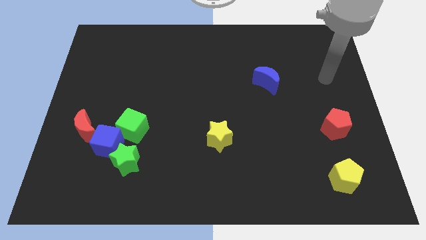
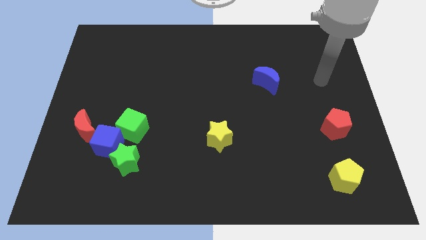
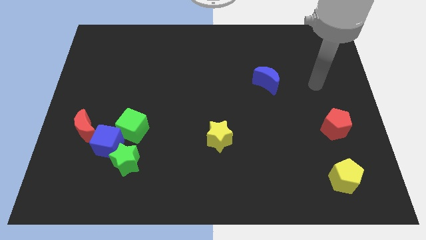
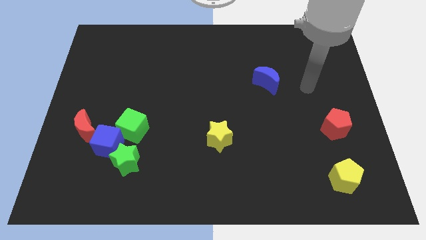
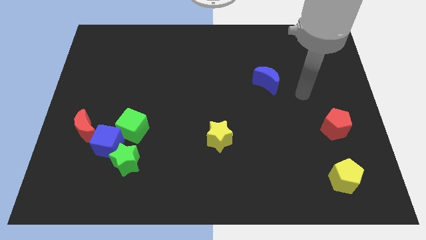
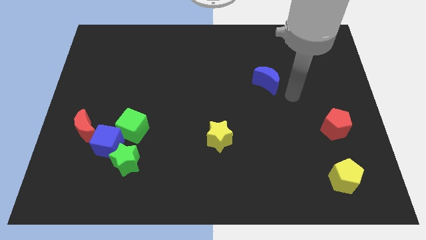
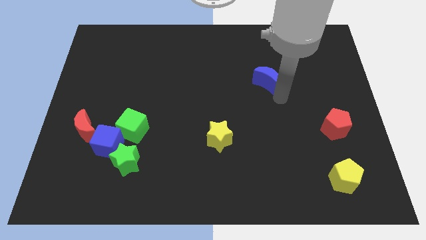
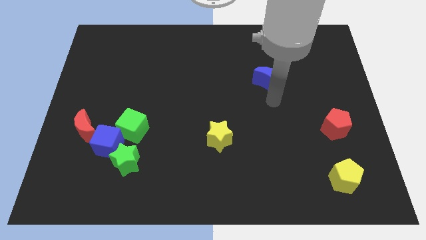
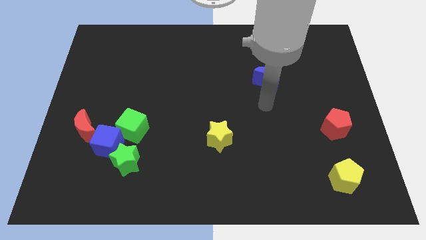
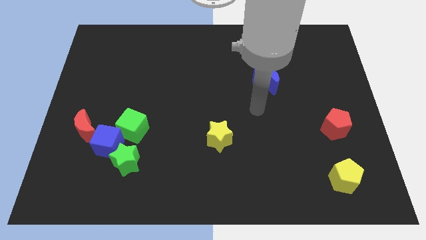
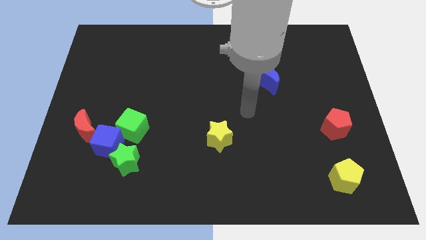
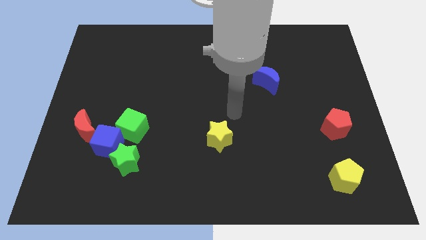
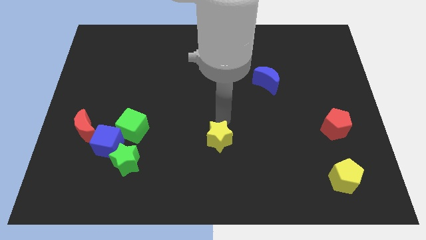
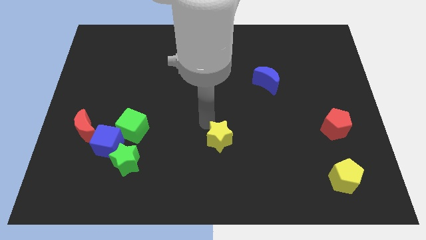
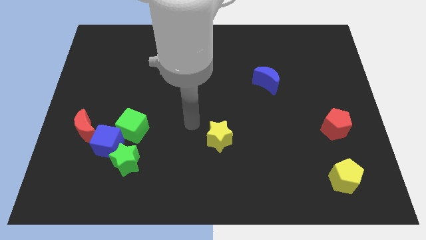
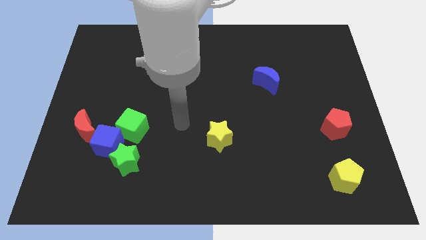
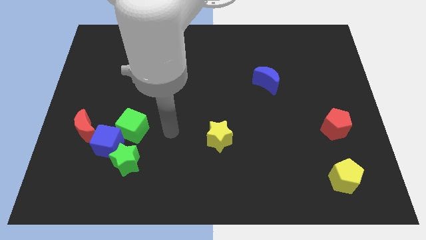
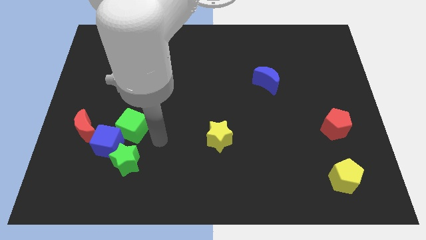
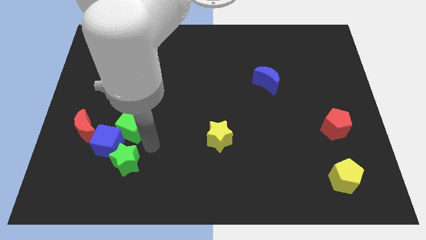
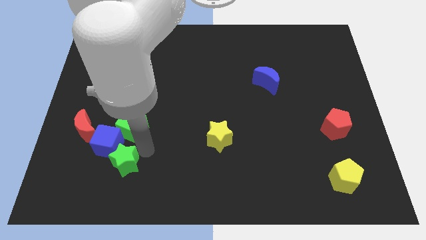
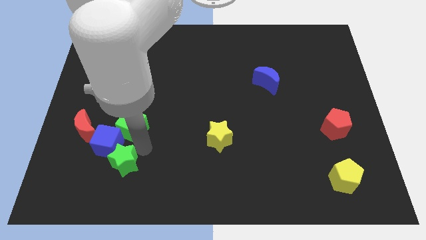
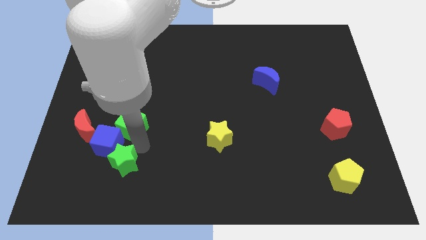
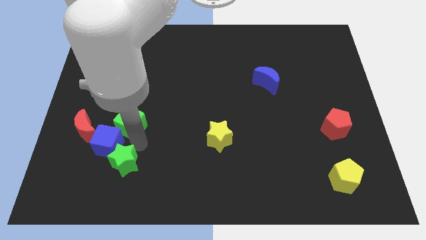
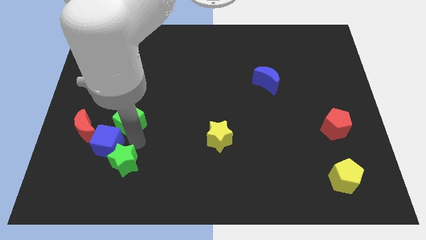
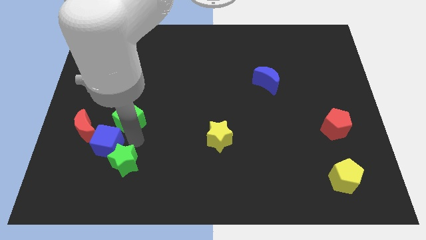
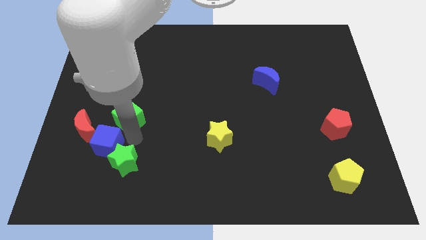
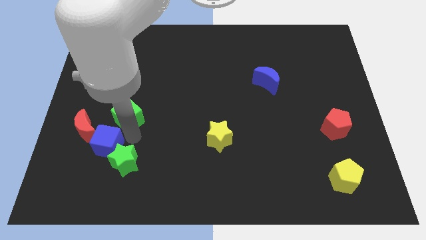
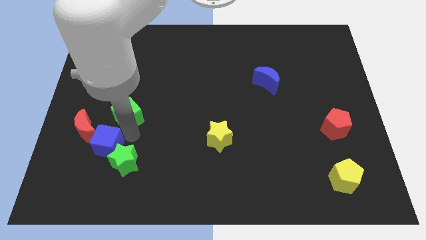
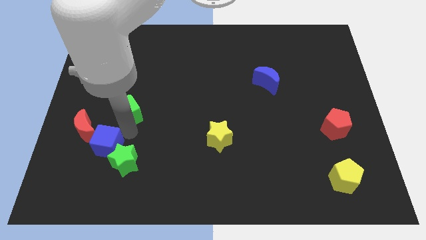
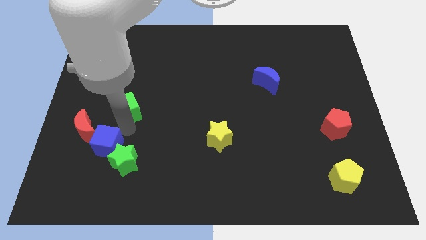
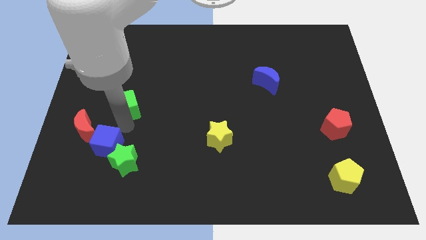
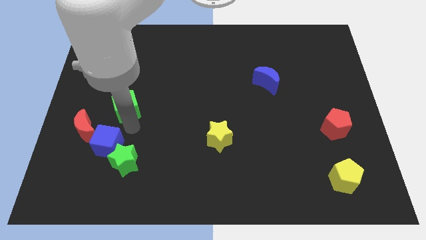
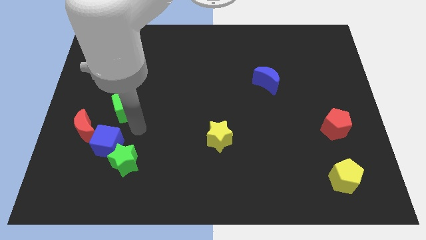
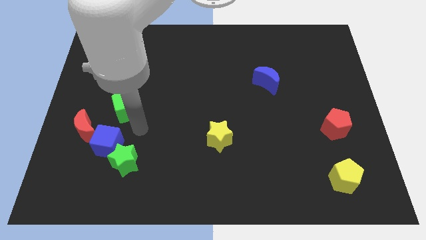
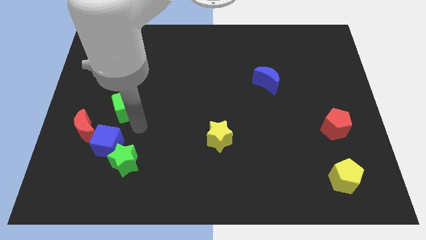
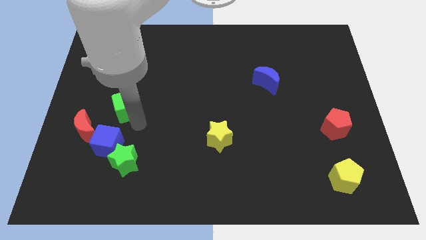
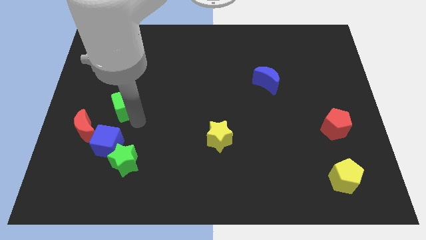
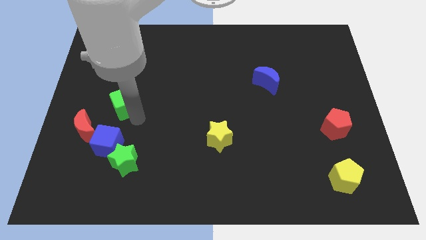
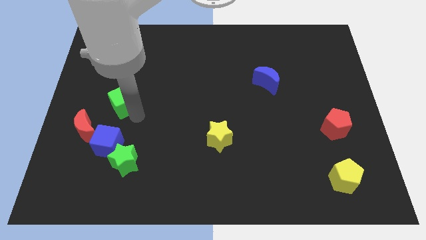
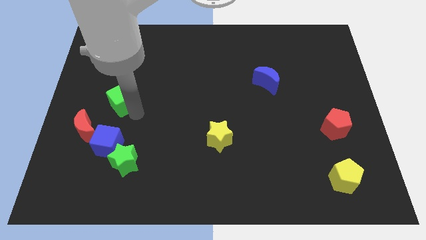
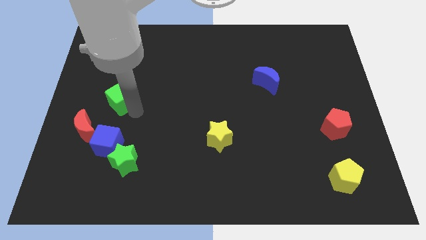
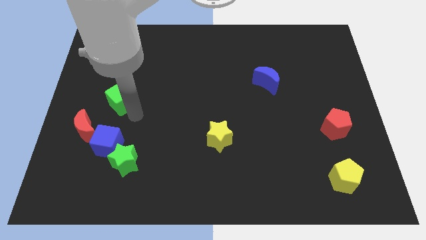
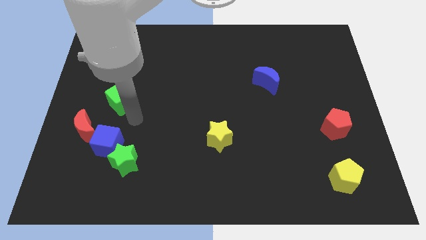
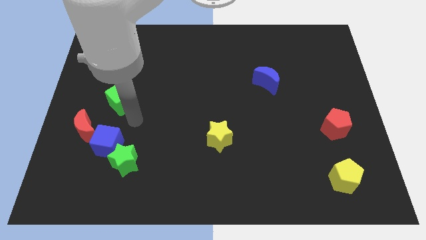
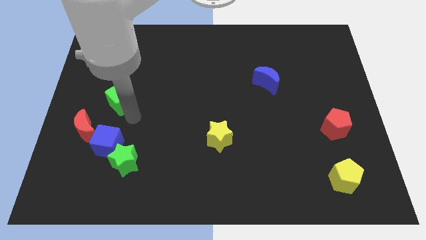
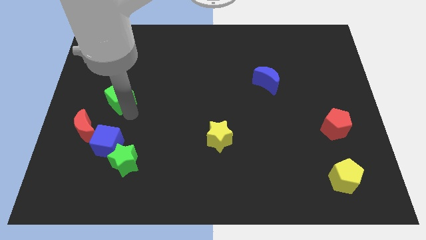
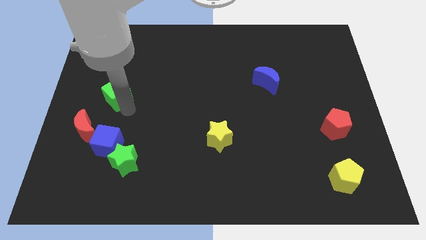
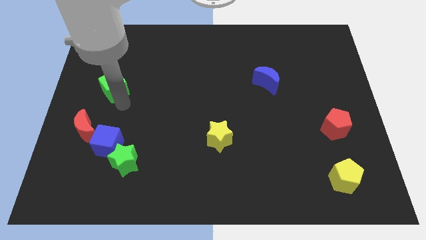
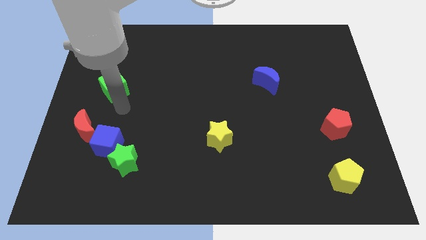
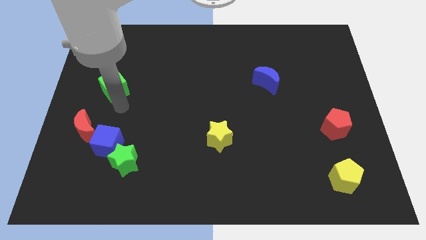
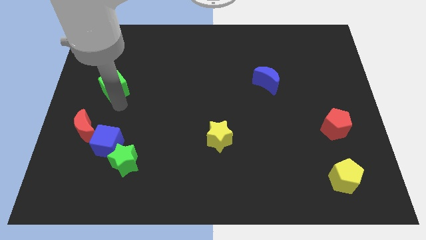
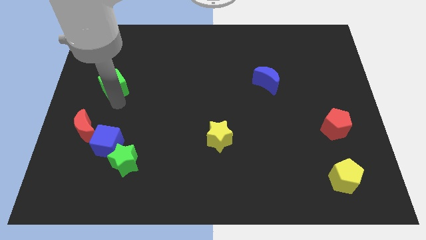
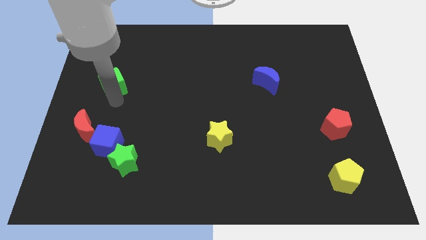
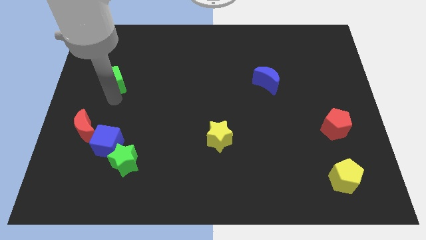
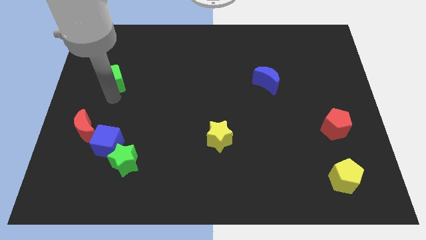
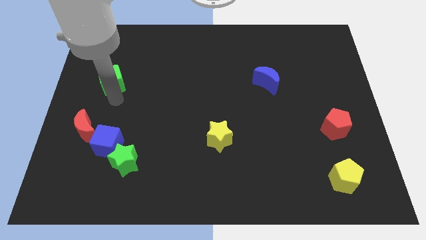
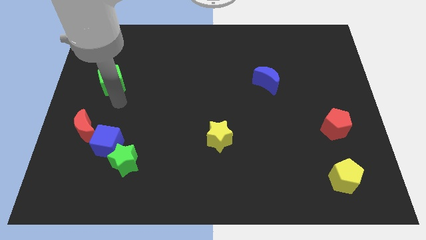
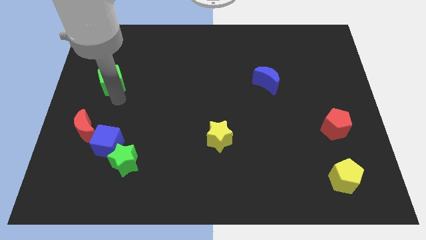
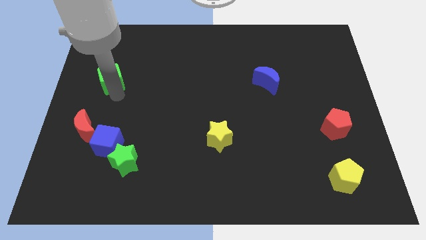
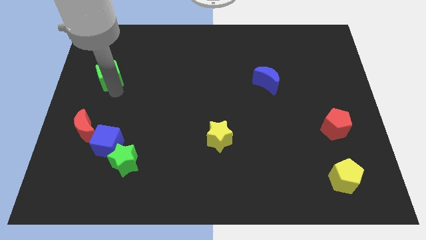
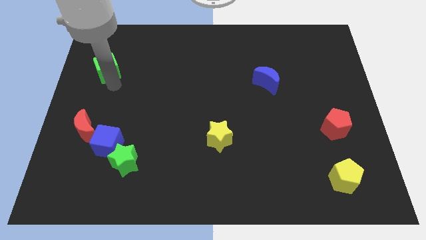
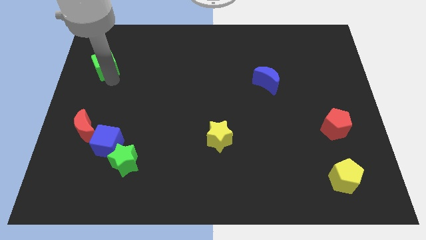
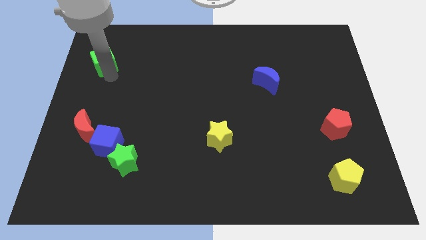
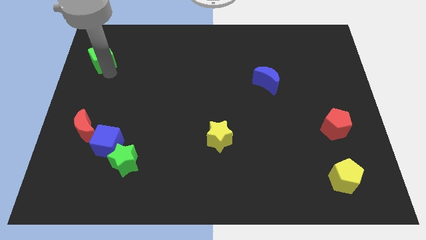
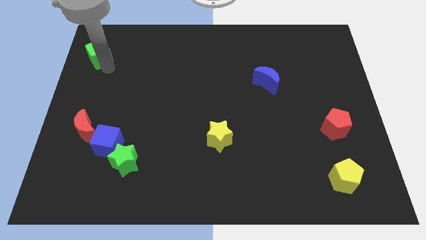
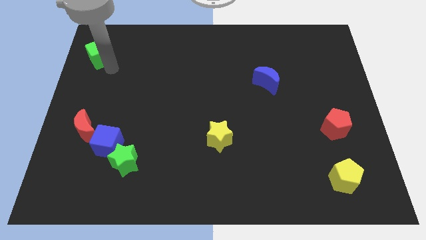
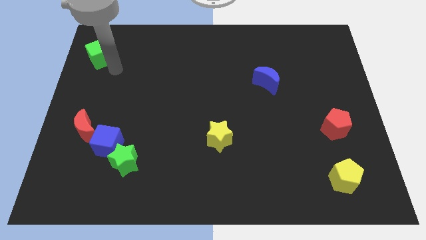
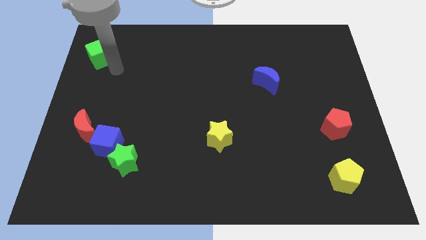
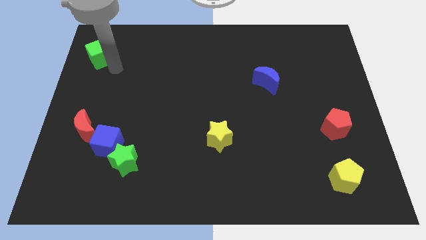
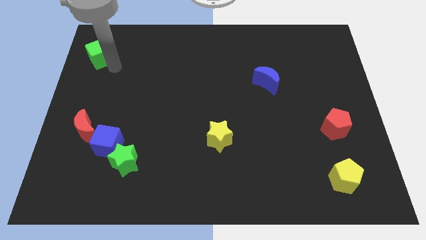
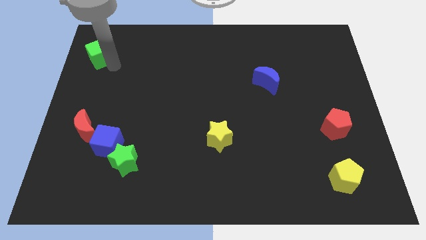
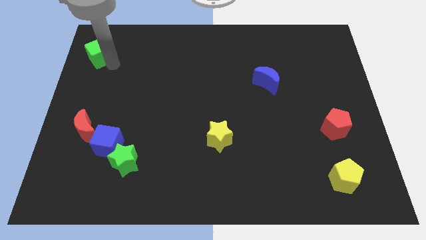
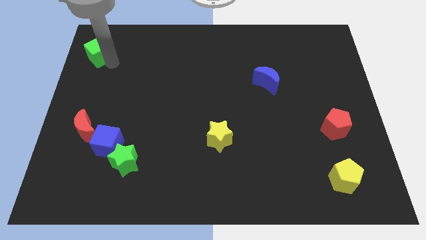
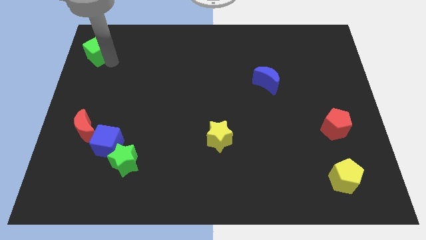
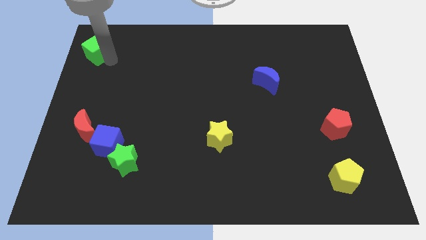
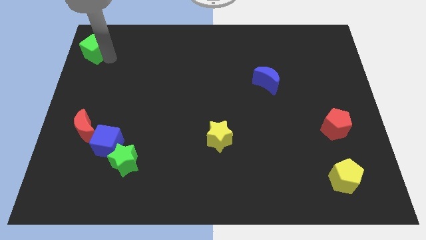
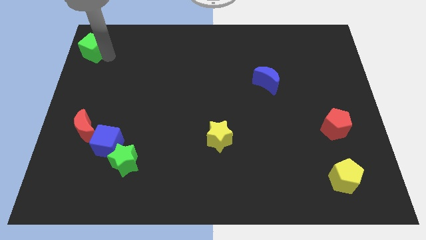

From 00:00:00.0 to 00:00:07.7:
put the green cube to the top left corner

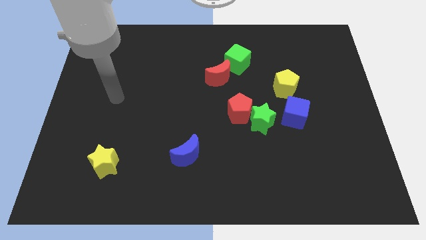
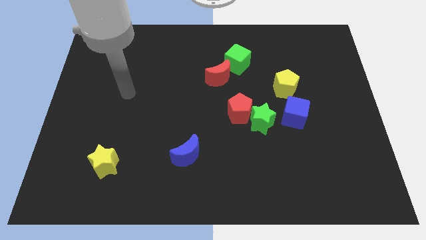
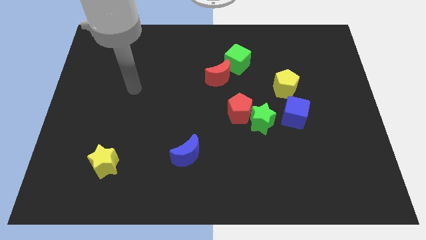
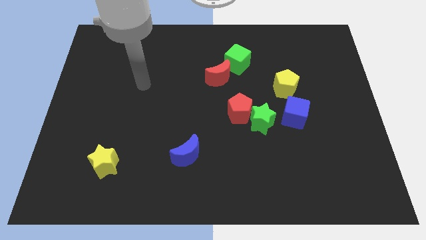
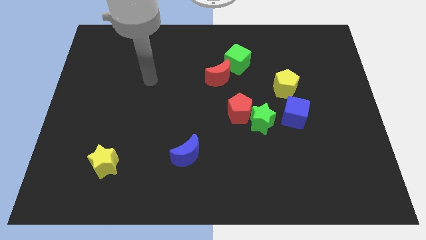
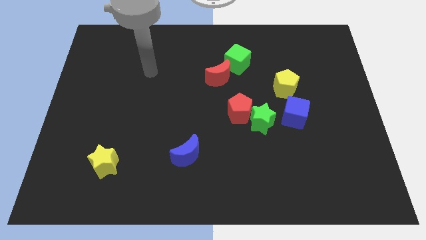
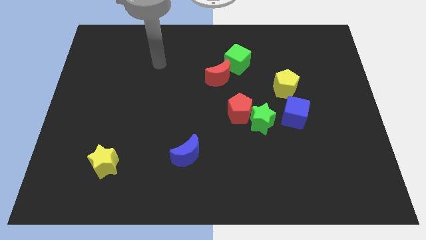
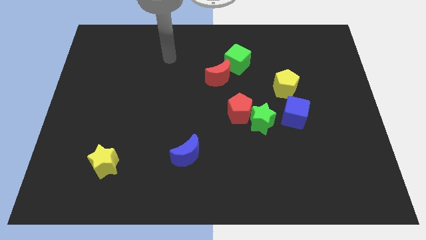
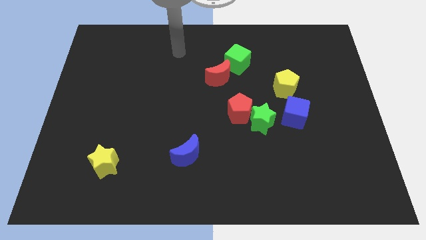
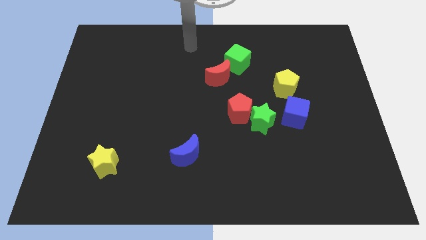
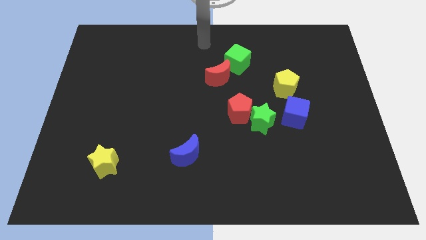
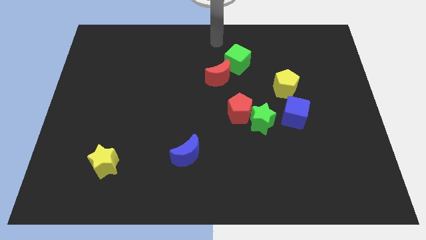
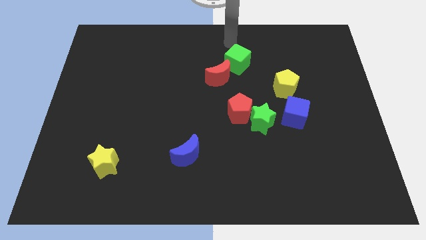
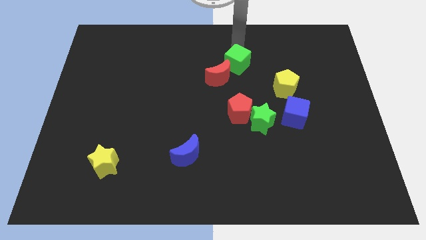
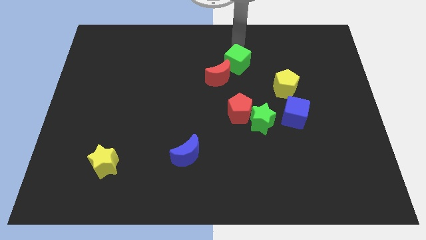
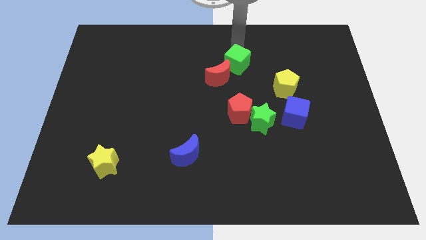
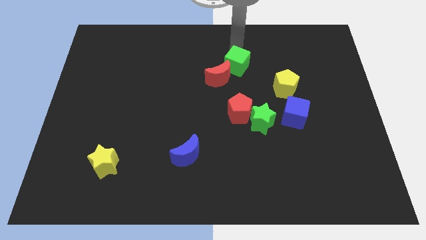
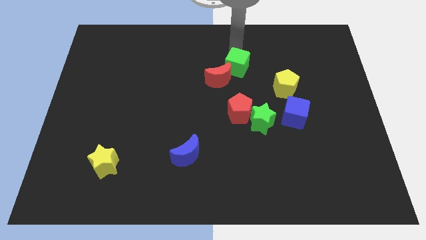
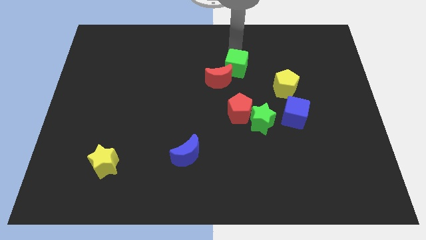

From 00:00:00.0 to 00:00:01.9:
put the green cube to the middle
